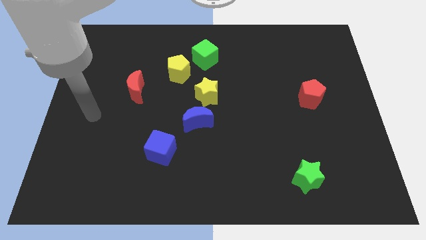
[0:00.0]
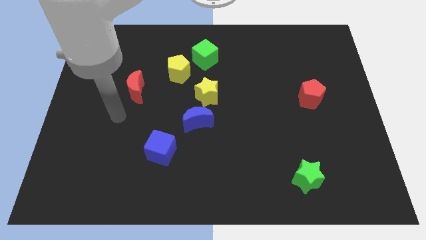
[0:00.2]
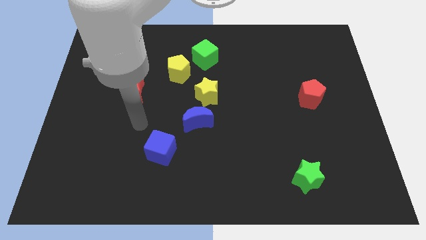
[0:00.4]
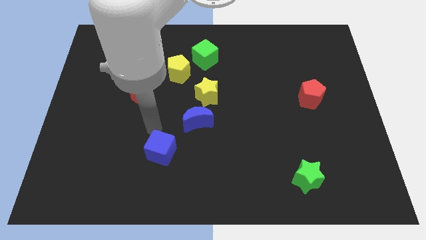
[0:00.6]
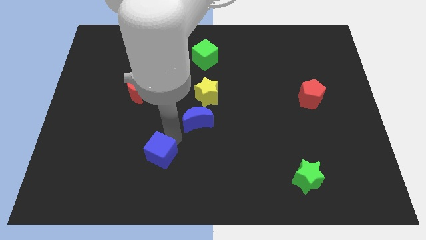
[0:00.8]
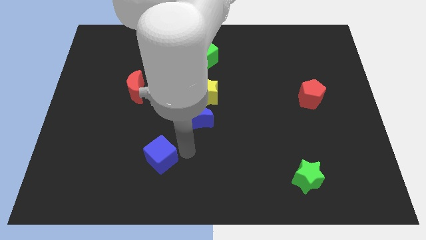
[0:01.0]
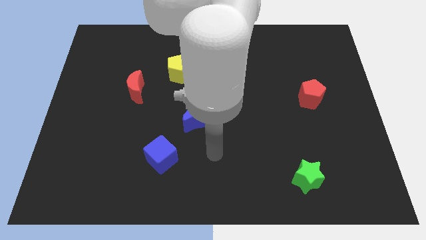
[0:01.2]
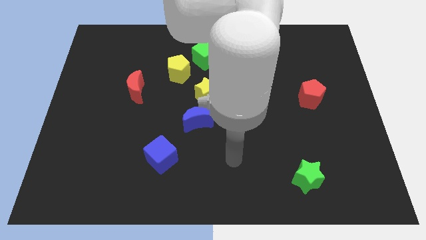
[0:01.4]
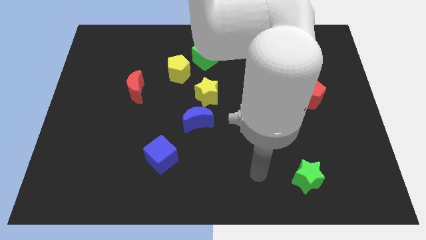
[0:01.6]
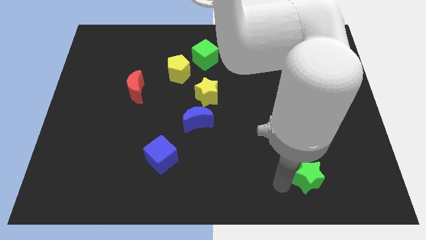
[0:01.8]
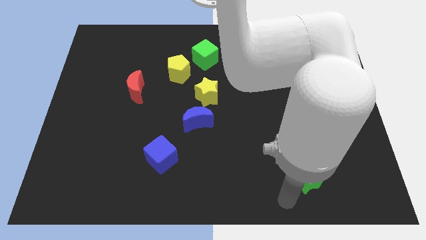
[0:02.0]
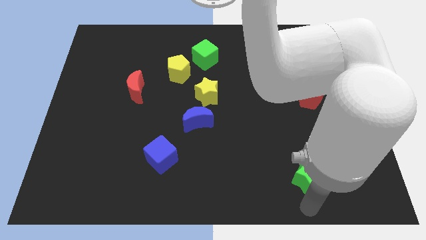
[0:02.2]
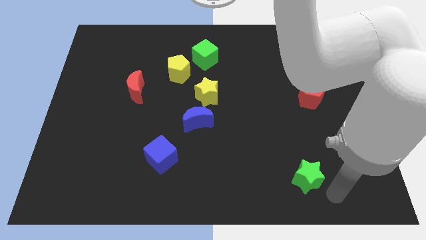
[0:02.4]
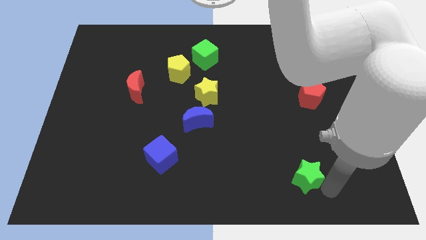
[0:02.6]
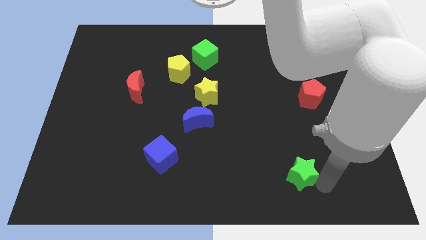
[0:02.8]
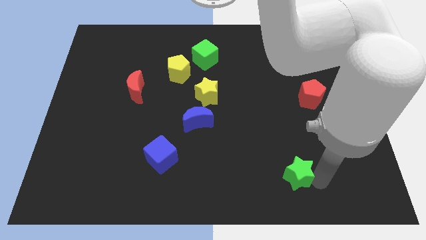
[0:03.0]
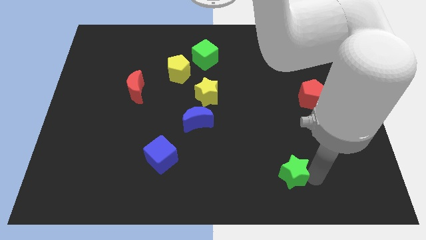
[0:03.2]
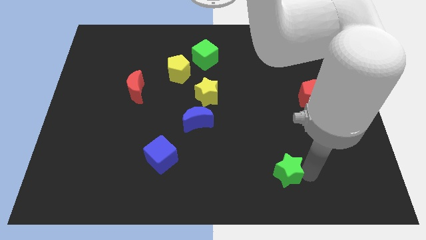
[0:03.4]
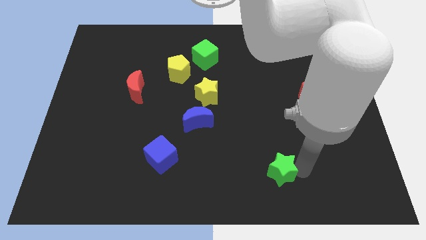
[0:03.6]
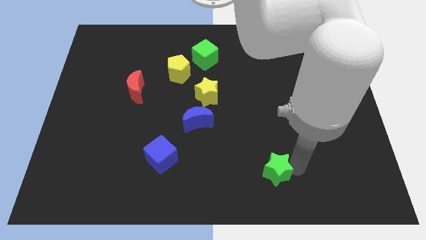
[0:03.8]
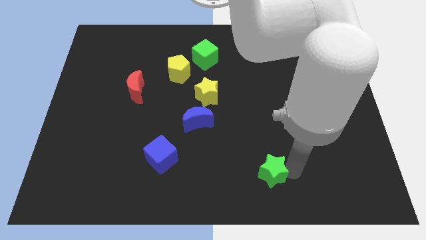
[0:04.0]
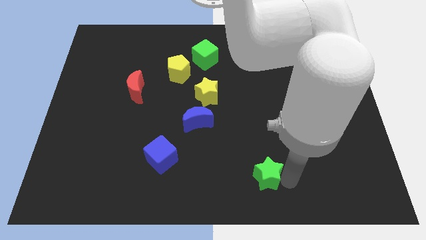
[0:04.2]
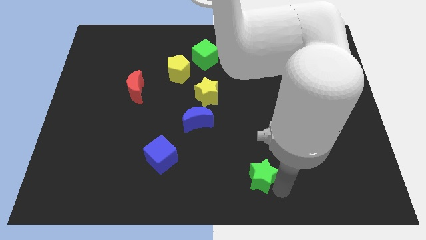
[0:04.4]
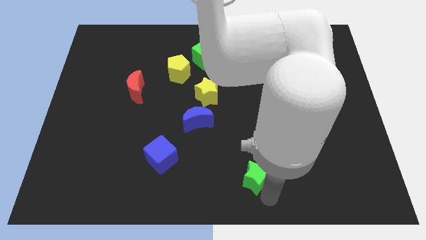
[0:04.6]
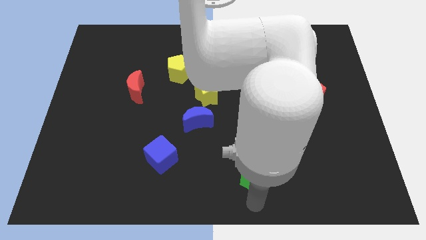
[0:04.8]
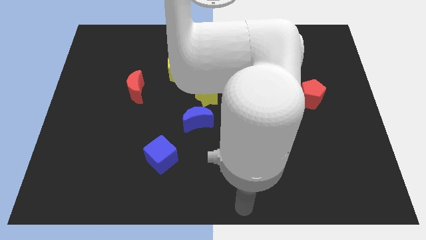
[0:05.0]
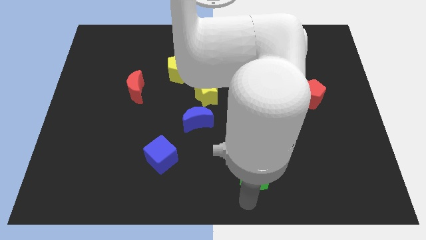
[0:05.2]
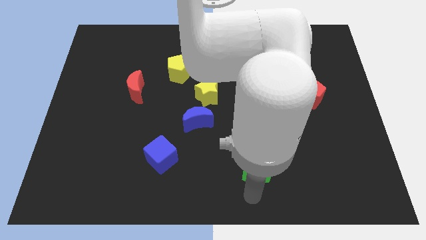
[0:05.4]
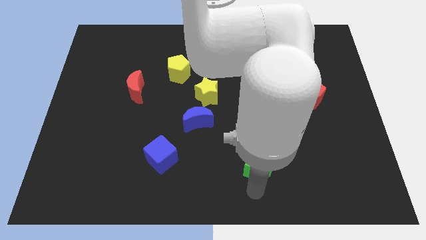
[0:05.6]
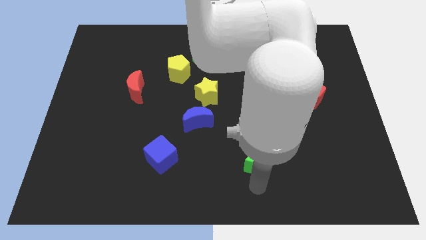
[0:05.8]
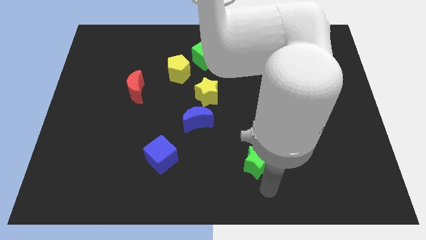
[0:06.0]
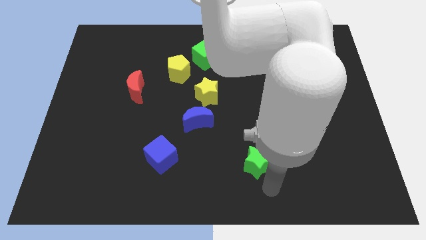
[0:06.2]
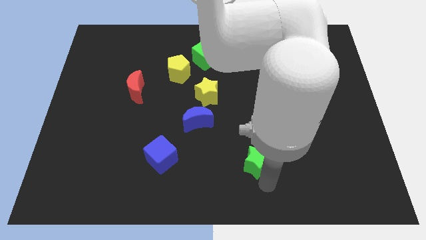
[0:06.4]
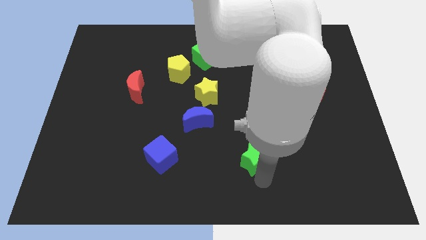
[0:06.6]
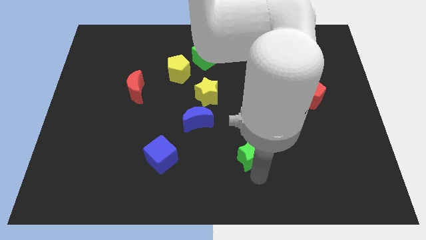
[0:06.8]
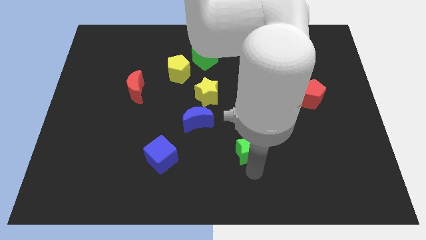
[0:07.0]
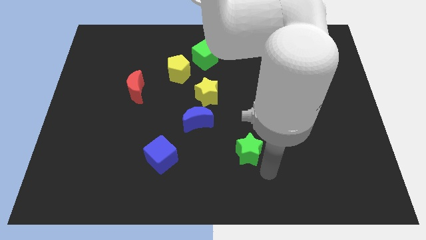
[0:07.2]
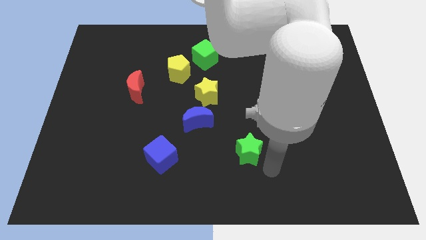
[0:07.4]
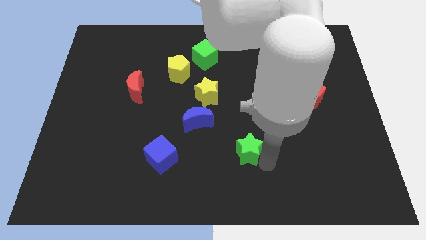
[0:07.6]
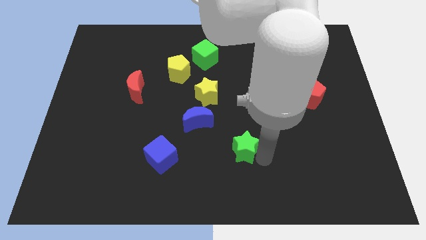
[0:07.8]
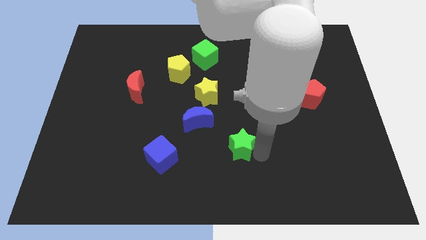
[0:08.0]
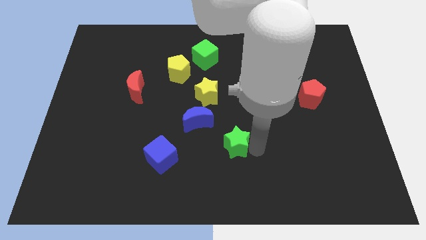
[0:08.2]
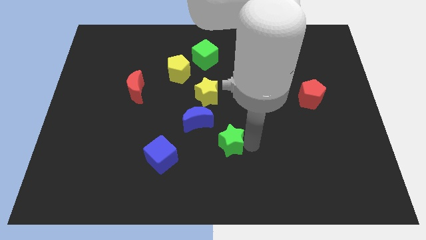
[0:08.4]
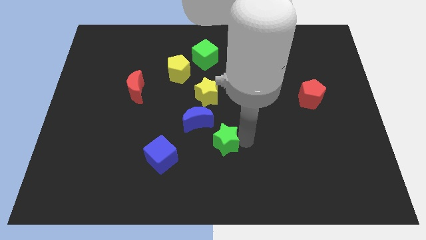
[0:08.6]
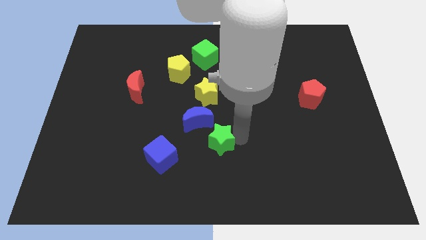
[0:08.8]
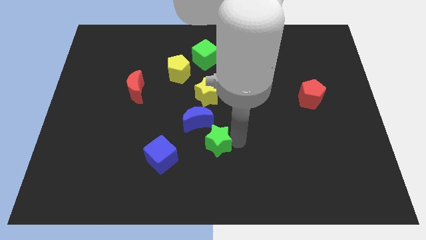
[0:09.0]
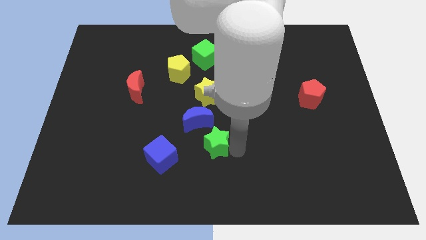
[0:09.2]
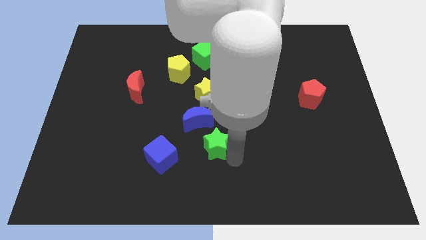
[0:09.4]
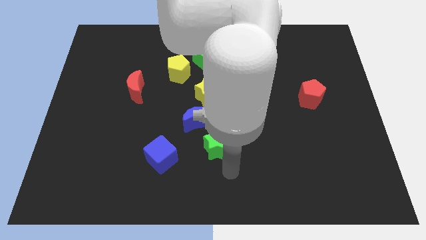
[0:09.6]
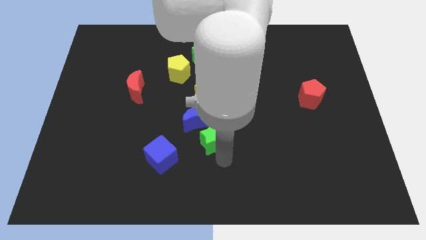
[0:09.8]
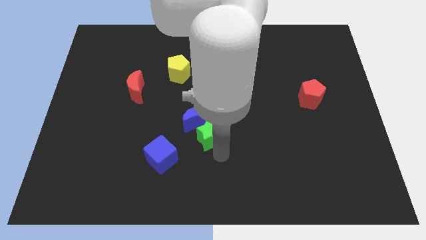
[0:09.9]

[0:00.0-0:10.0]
move the green star to the blue moon

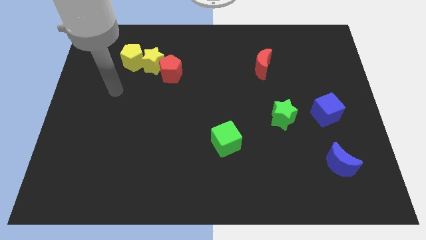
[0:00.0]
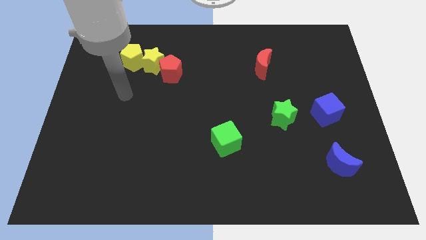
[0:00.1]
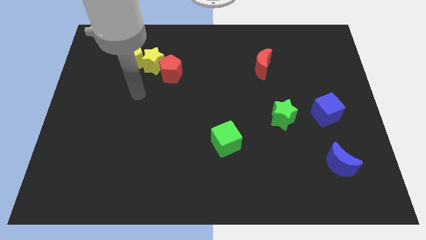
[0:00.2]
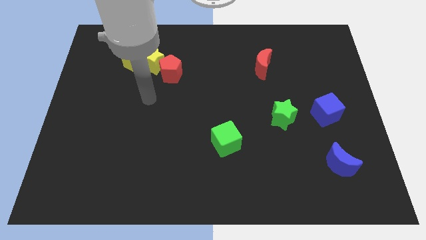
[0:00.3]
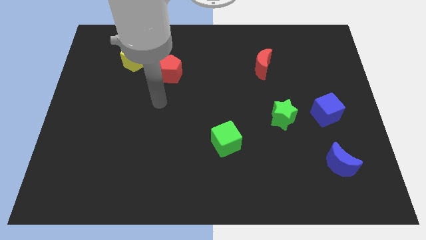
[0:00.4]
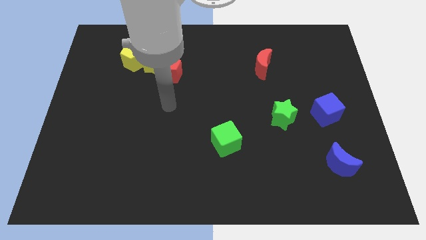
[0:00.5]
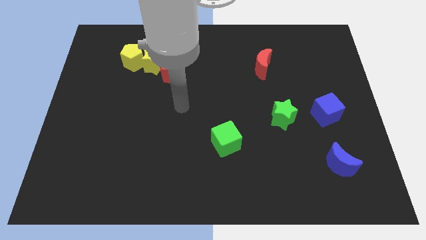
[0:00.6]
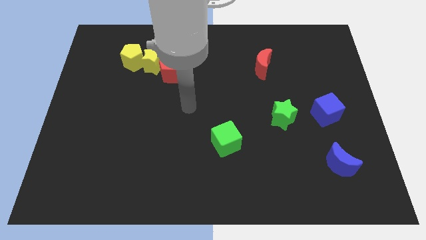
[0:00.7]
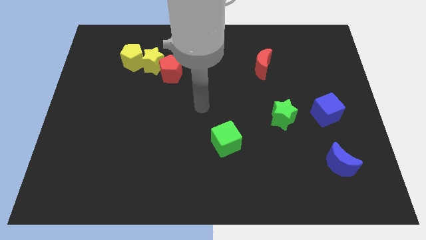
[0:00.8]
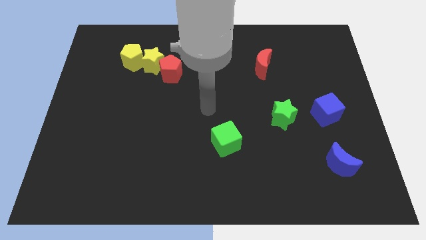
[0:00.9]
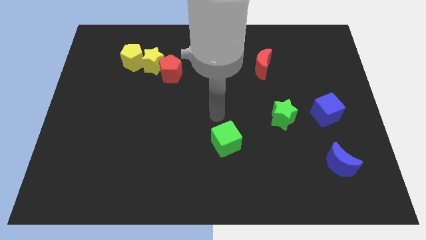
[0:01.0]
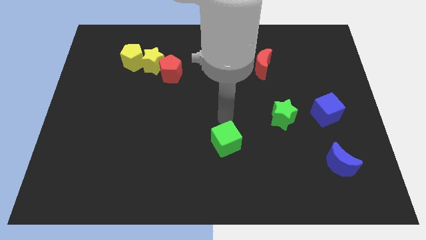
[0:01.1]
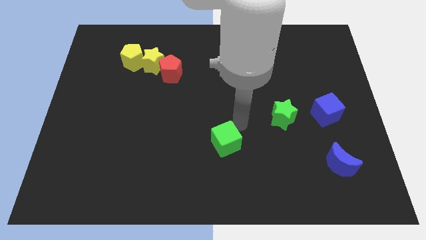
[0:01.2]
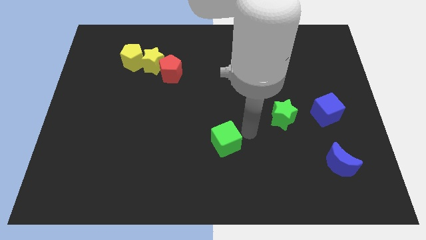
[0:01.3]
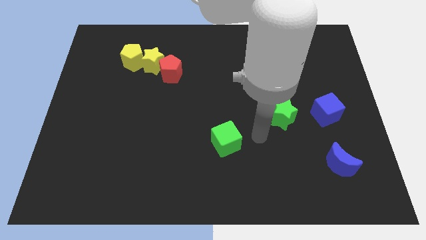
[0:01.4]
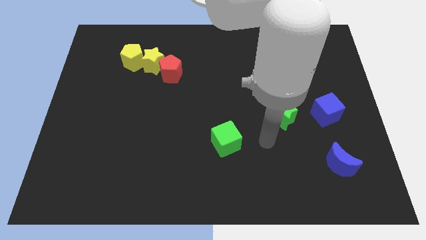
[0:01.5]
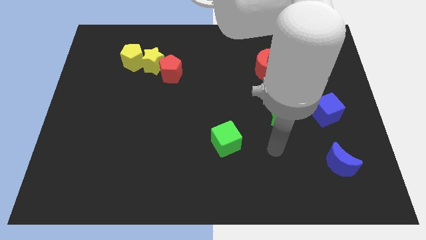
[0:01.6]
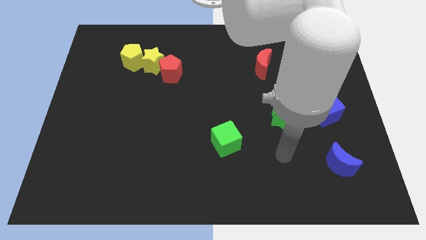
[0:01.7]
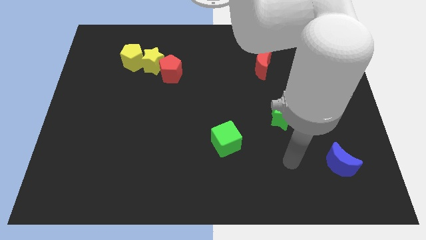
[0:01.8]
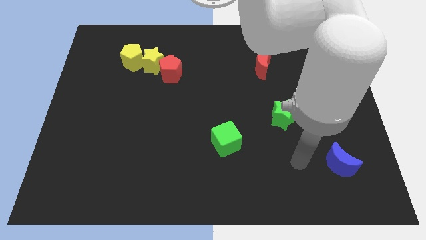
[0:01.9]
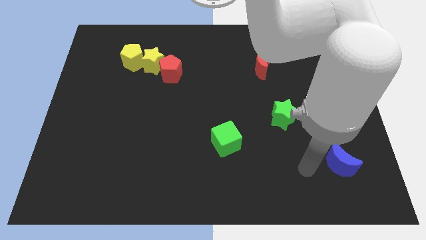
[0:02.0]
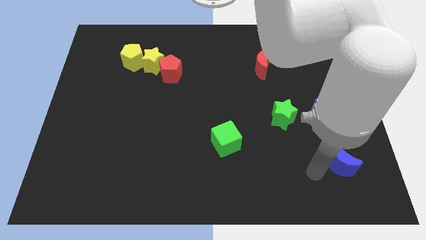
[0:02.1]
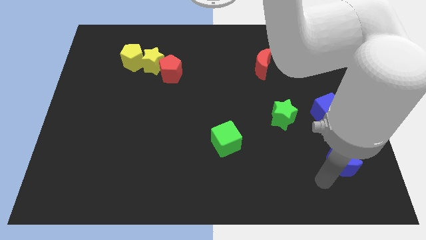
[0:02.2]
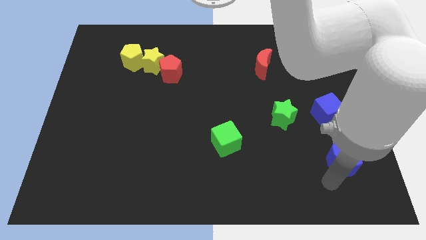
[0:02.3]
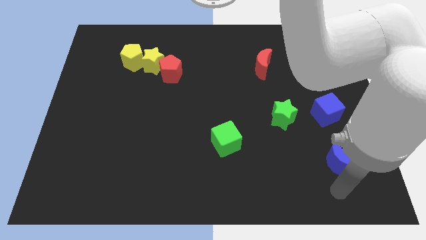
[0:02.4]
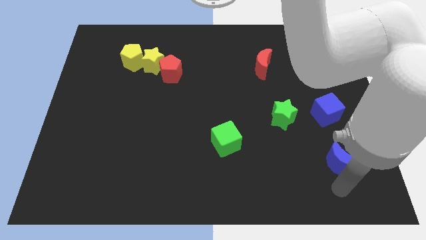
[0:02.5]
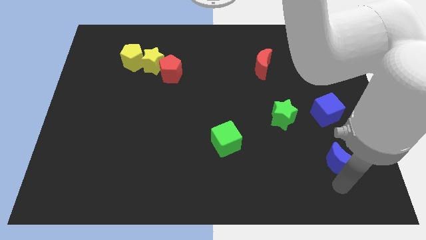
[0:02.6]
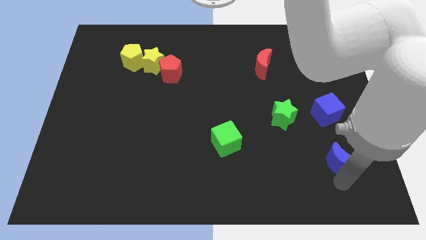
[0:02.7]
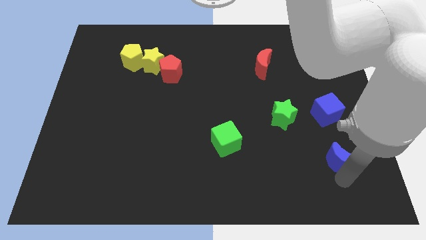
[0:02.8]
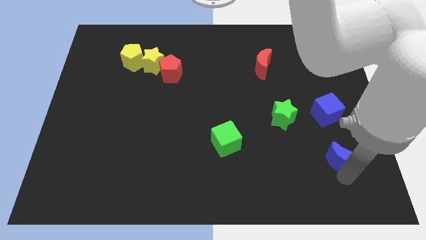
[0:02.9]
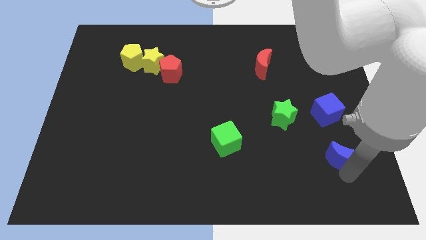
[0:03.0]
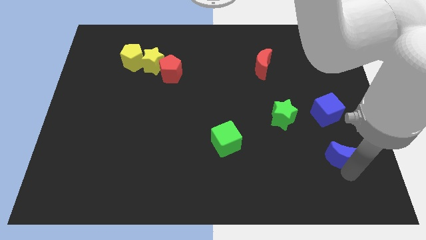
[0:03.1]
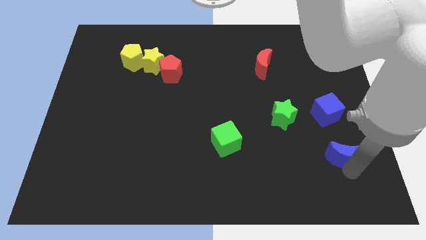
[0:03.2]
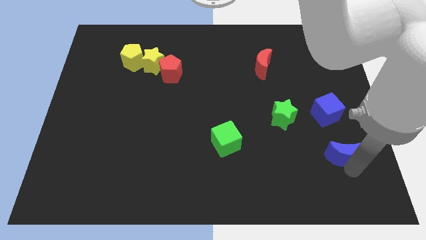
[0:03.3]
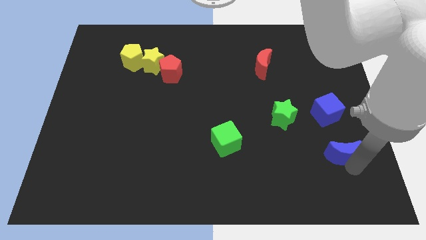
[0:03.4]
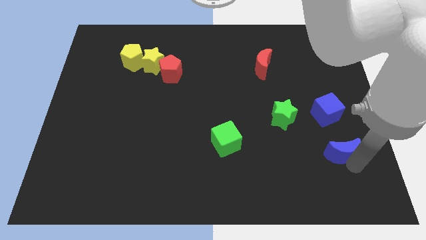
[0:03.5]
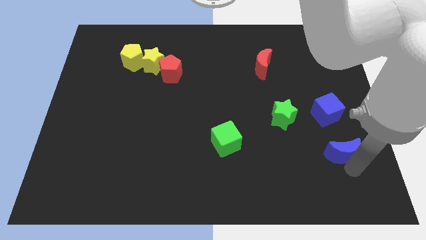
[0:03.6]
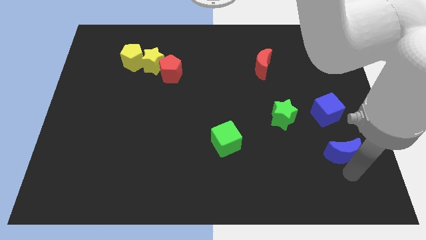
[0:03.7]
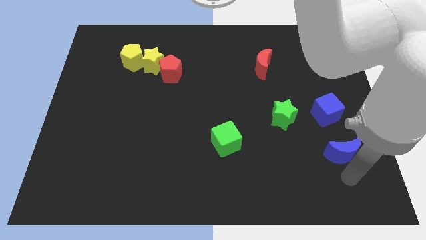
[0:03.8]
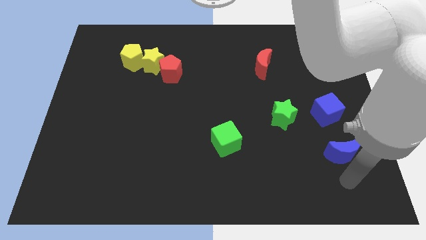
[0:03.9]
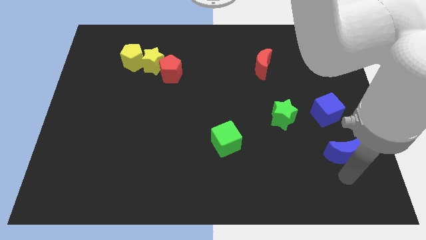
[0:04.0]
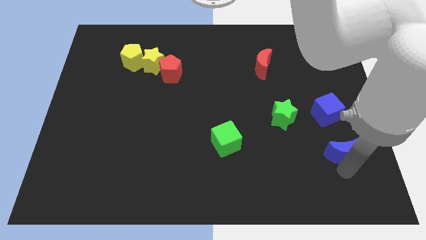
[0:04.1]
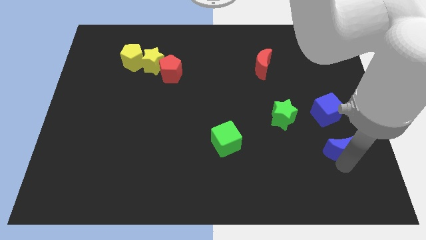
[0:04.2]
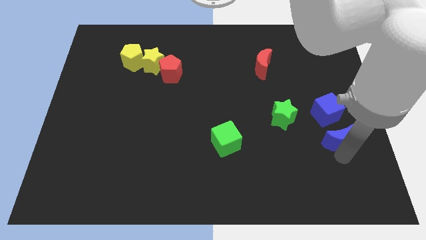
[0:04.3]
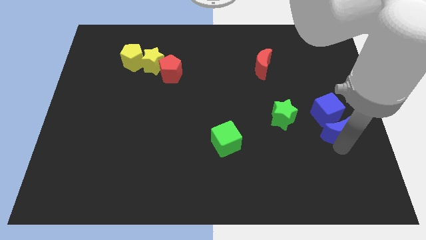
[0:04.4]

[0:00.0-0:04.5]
push the blue moon close to the blue cube
